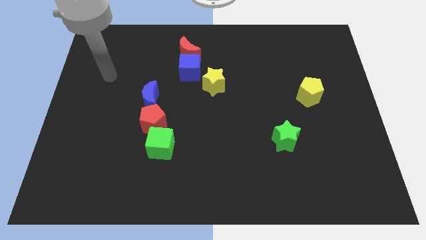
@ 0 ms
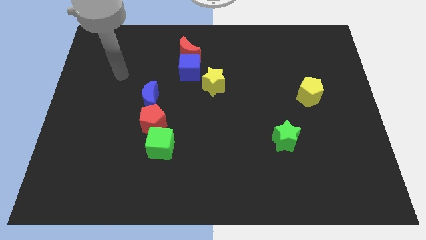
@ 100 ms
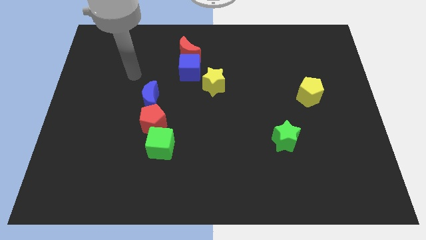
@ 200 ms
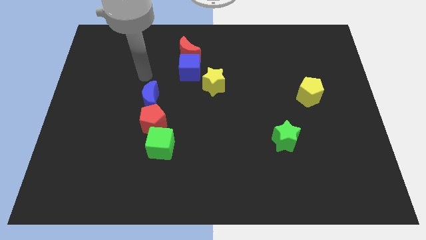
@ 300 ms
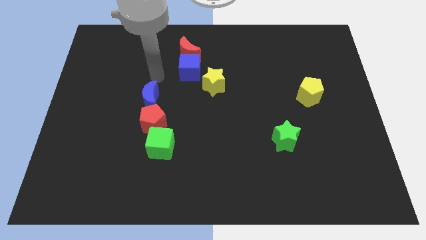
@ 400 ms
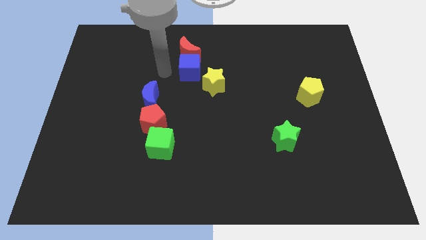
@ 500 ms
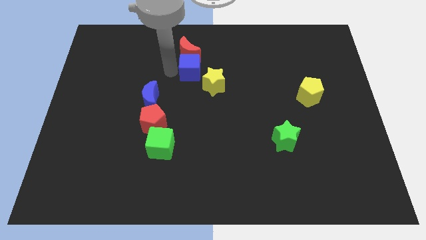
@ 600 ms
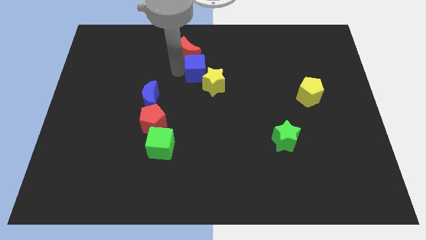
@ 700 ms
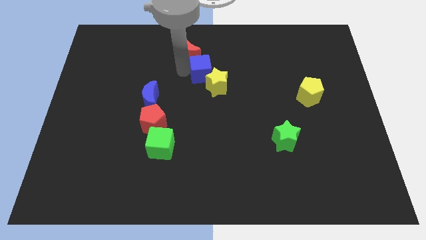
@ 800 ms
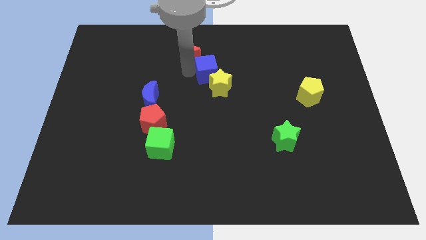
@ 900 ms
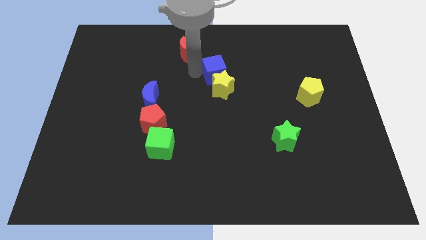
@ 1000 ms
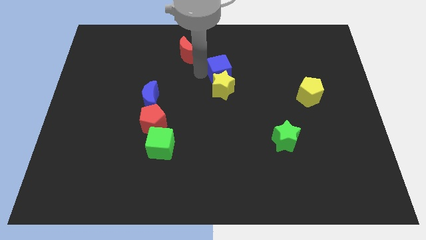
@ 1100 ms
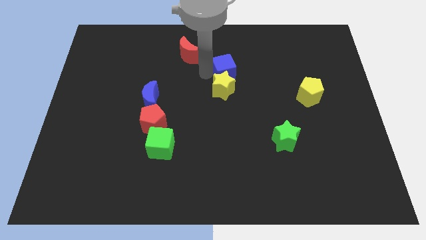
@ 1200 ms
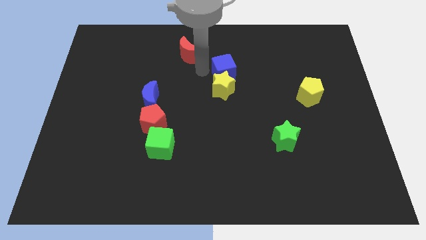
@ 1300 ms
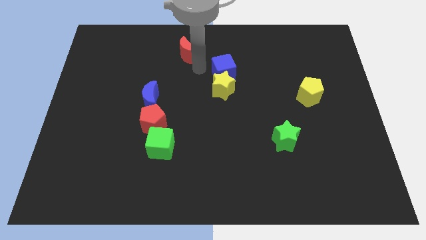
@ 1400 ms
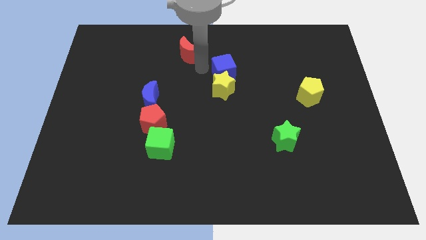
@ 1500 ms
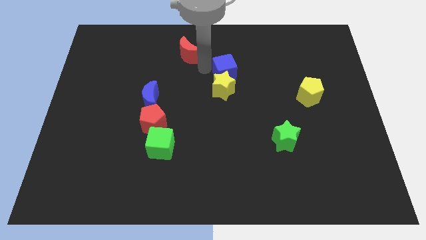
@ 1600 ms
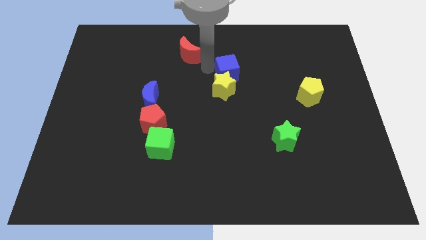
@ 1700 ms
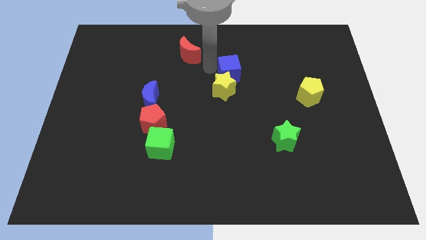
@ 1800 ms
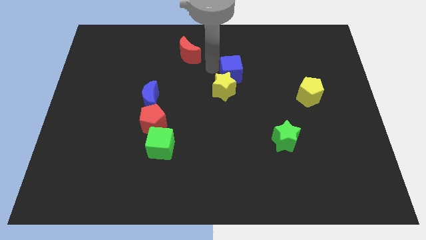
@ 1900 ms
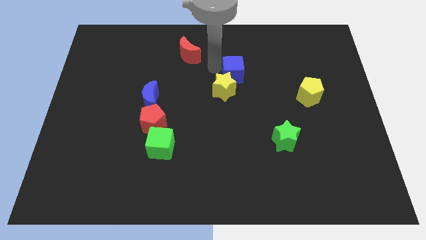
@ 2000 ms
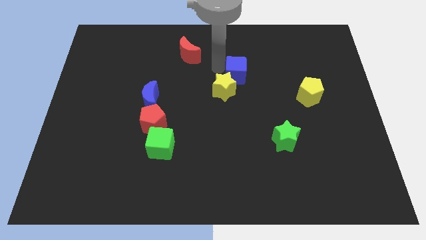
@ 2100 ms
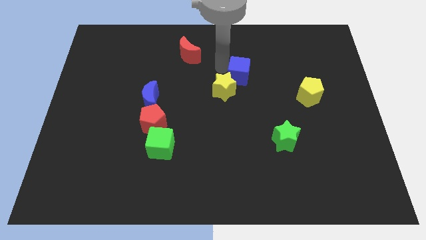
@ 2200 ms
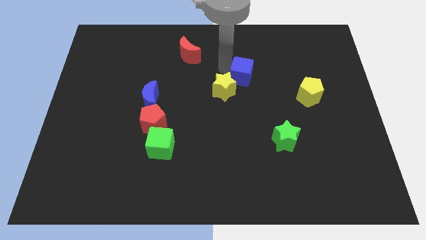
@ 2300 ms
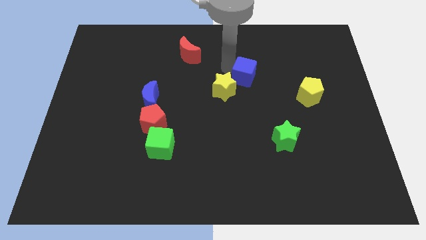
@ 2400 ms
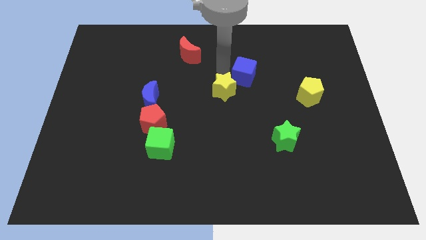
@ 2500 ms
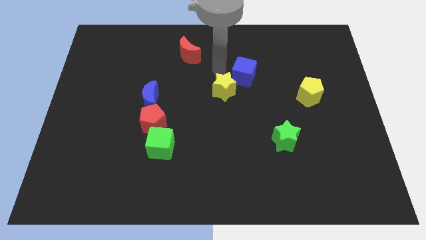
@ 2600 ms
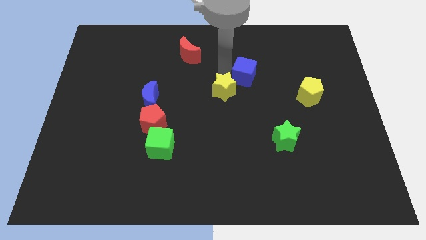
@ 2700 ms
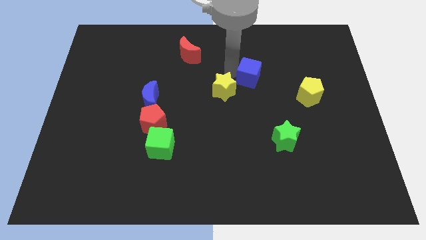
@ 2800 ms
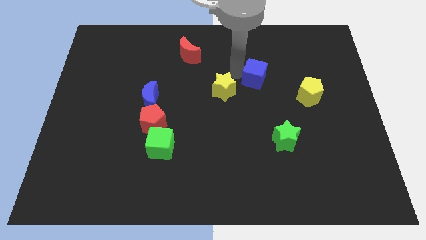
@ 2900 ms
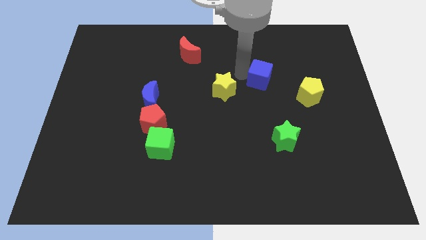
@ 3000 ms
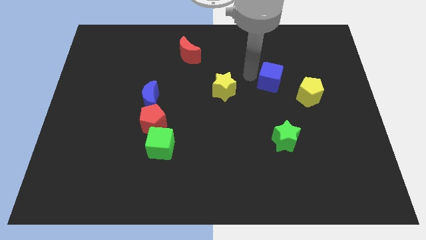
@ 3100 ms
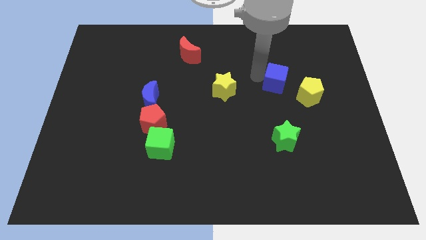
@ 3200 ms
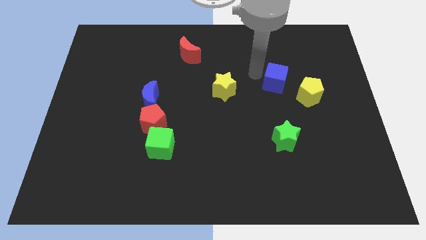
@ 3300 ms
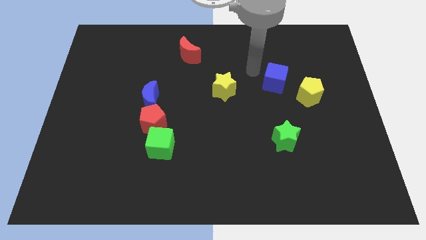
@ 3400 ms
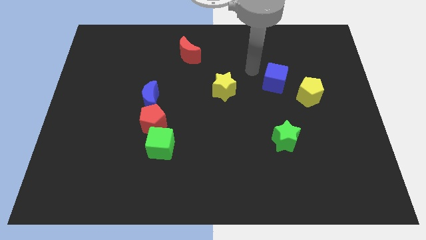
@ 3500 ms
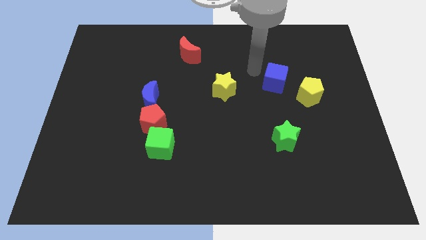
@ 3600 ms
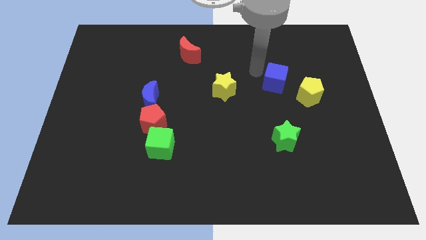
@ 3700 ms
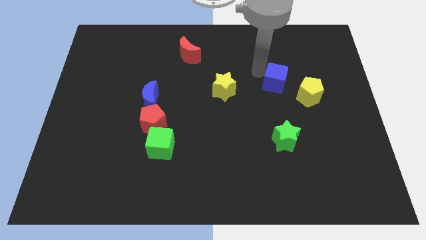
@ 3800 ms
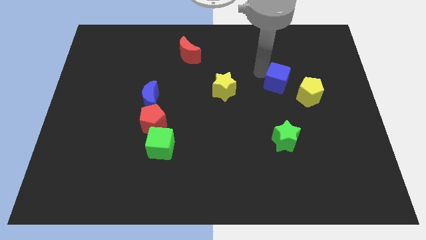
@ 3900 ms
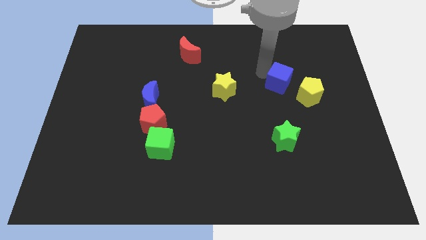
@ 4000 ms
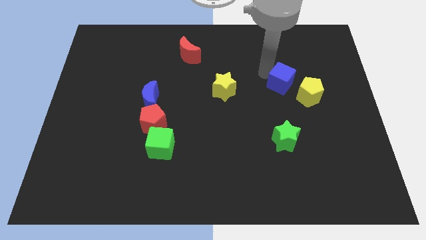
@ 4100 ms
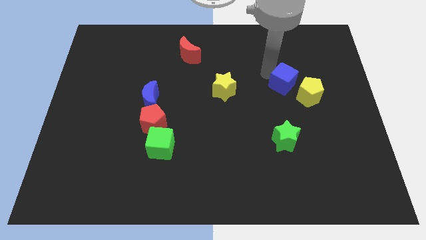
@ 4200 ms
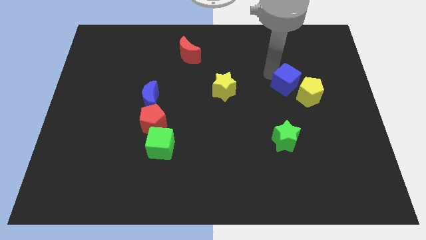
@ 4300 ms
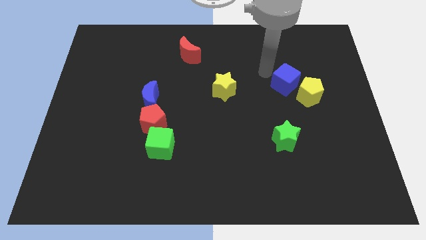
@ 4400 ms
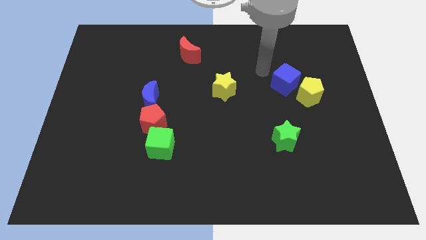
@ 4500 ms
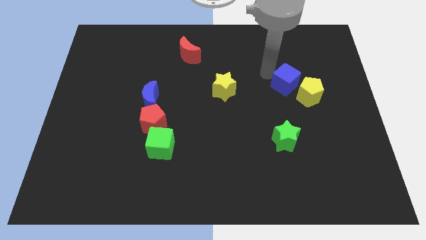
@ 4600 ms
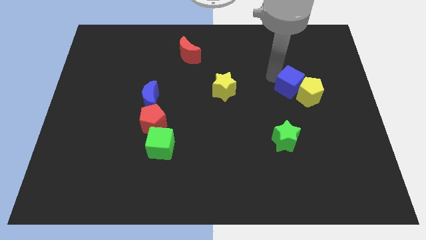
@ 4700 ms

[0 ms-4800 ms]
move the blue cube close to the yellow pentagon

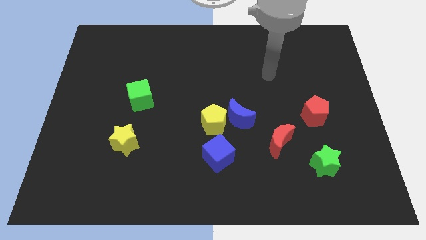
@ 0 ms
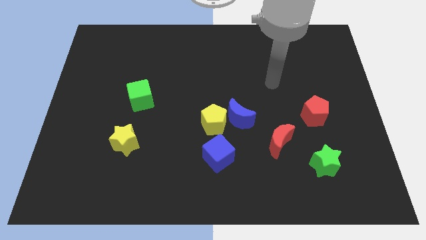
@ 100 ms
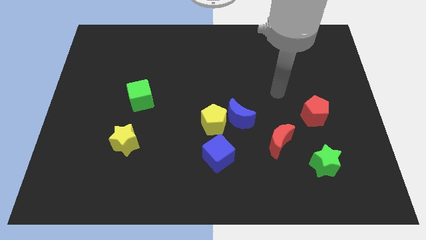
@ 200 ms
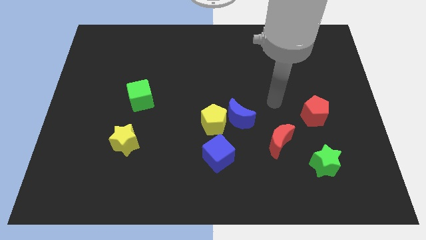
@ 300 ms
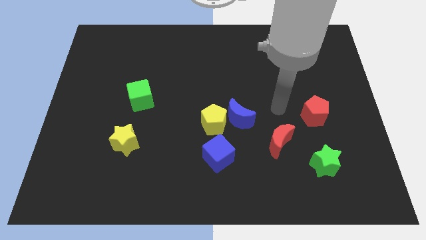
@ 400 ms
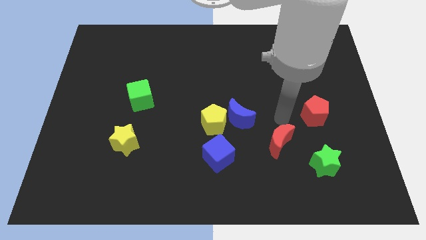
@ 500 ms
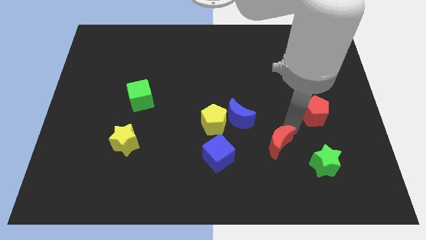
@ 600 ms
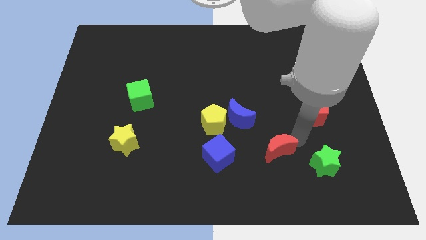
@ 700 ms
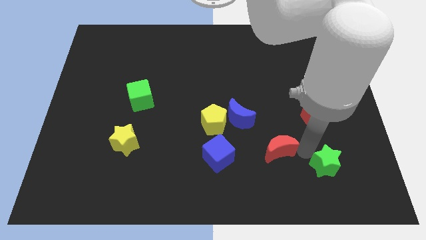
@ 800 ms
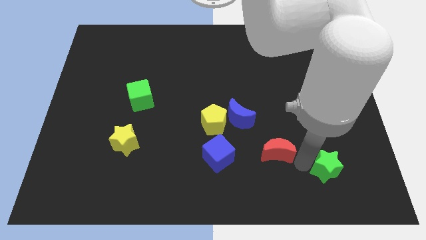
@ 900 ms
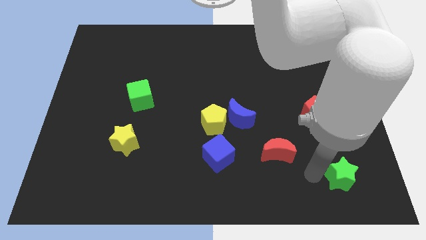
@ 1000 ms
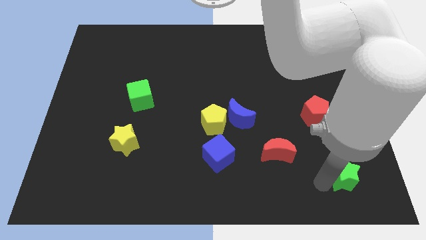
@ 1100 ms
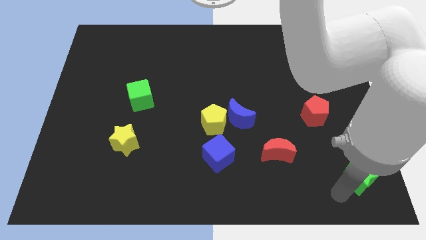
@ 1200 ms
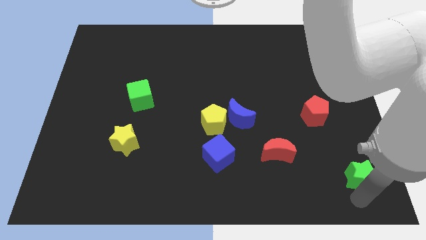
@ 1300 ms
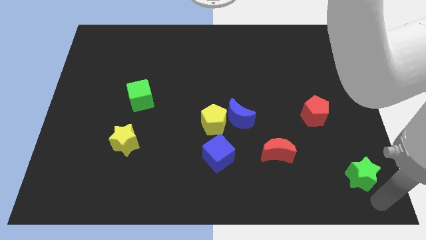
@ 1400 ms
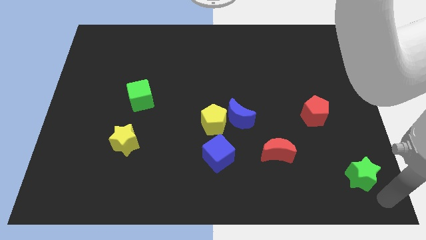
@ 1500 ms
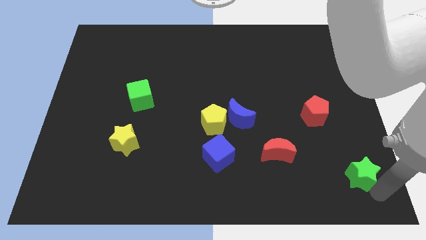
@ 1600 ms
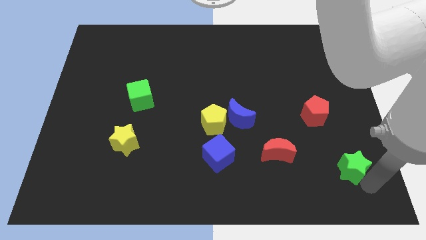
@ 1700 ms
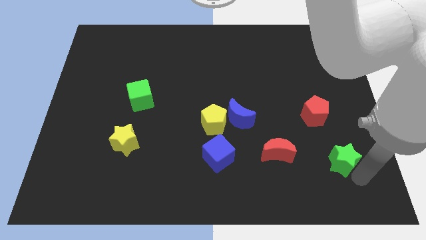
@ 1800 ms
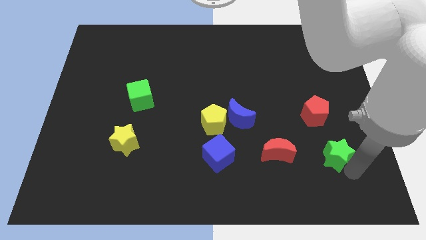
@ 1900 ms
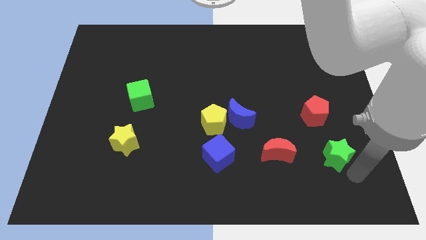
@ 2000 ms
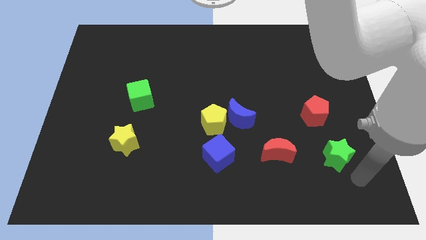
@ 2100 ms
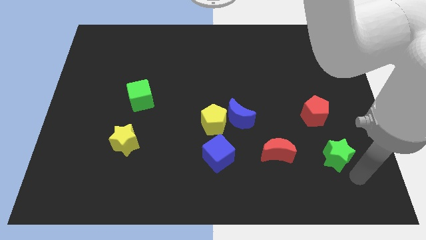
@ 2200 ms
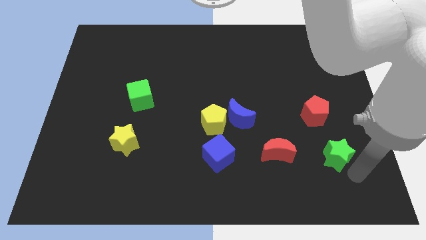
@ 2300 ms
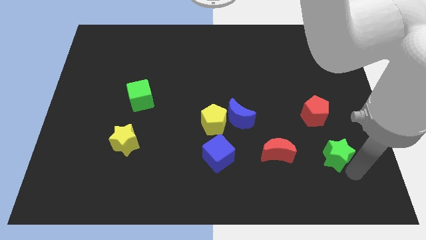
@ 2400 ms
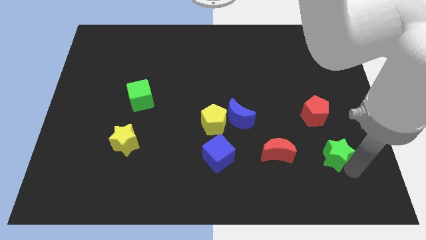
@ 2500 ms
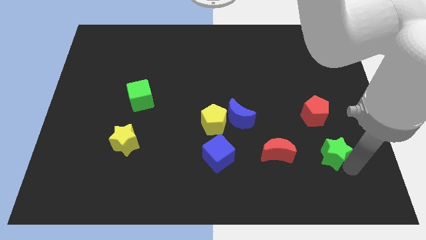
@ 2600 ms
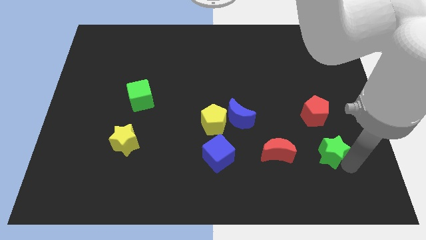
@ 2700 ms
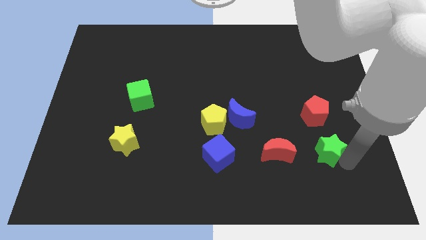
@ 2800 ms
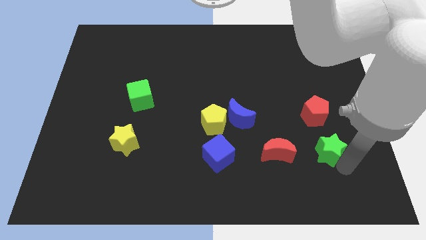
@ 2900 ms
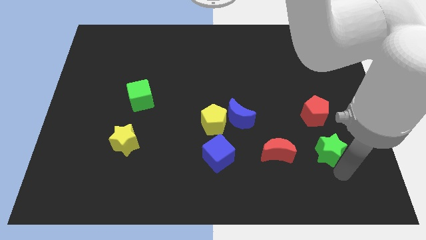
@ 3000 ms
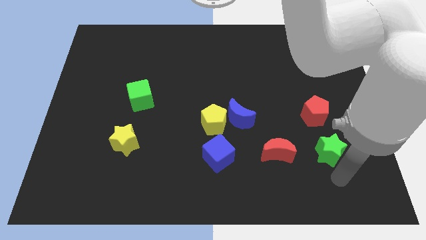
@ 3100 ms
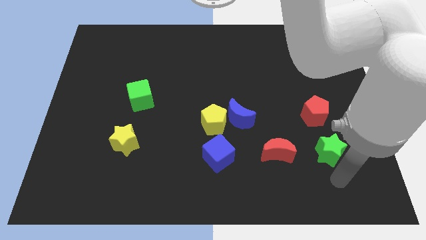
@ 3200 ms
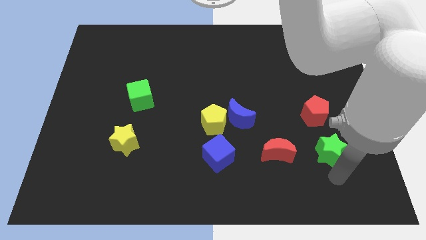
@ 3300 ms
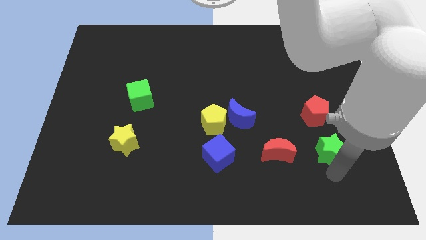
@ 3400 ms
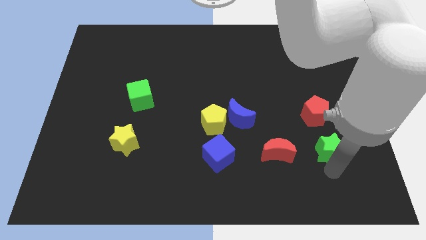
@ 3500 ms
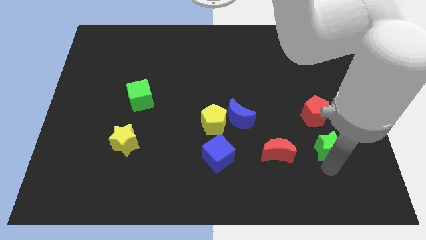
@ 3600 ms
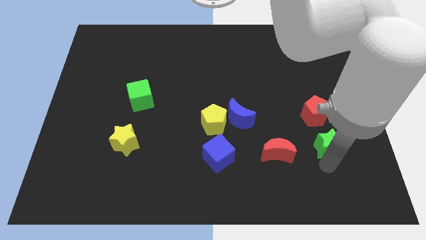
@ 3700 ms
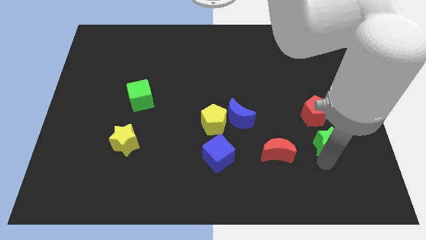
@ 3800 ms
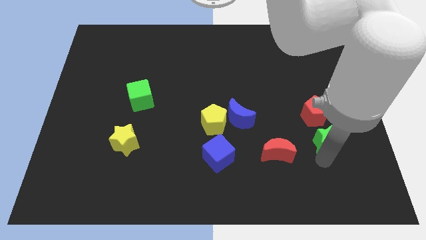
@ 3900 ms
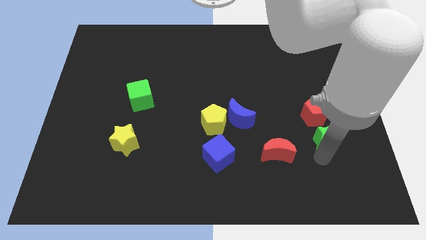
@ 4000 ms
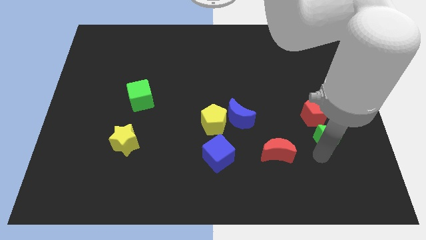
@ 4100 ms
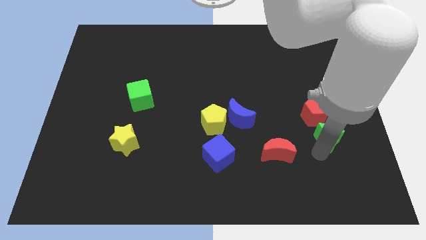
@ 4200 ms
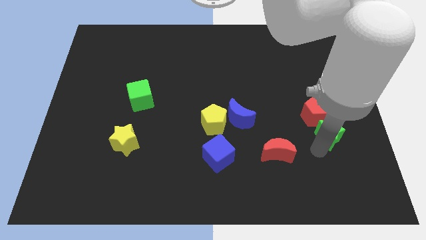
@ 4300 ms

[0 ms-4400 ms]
push the green star next to the red pentagon
